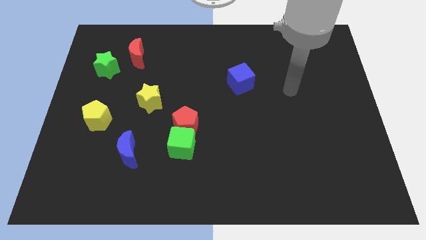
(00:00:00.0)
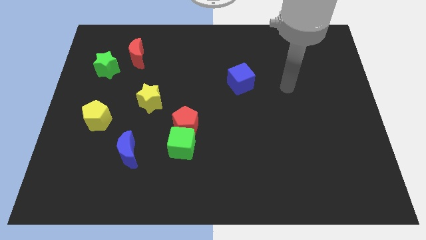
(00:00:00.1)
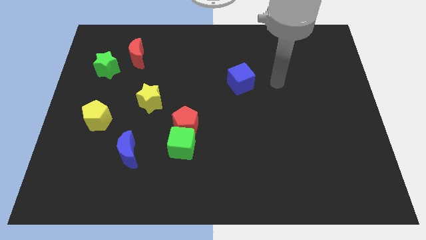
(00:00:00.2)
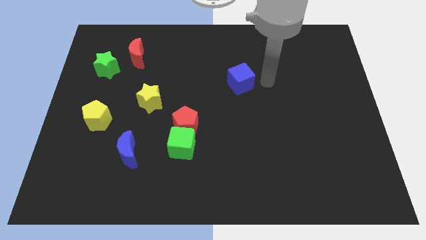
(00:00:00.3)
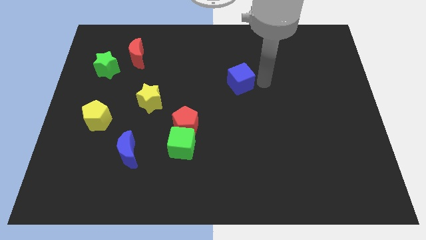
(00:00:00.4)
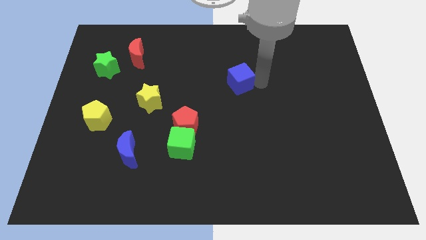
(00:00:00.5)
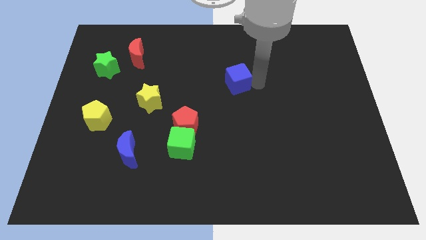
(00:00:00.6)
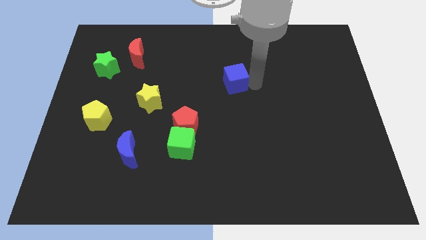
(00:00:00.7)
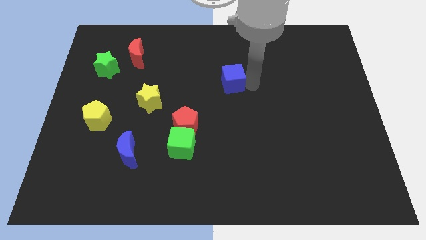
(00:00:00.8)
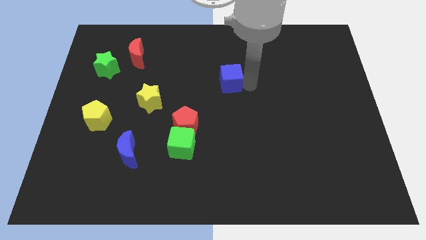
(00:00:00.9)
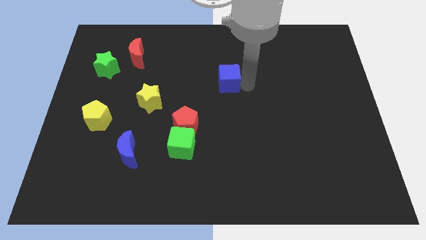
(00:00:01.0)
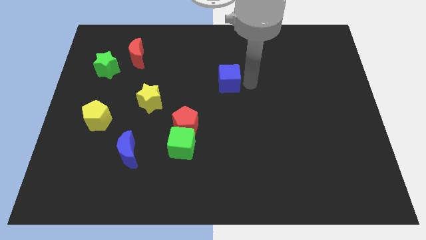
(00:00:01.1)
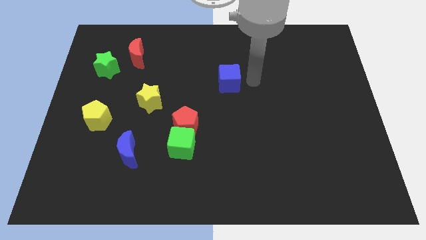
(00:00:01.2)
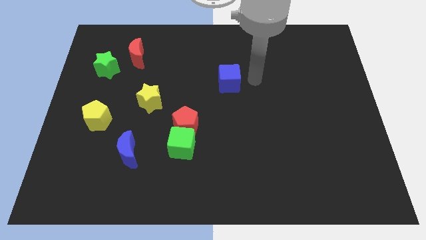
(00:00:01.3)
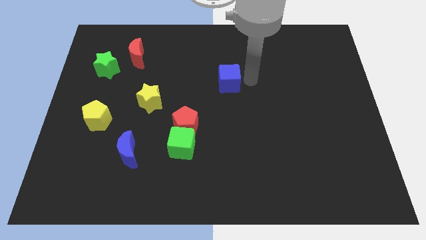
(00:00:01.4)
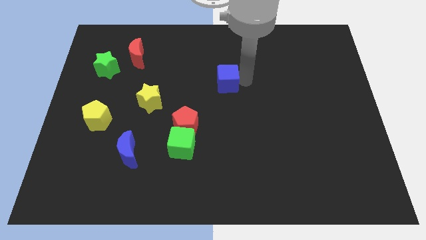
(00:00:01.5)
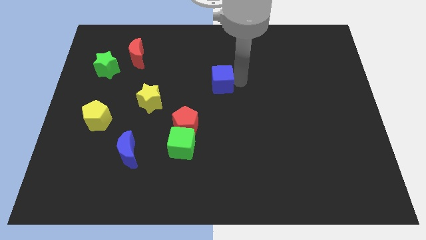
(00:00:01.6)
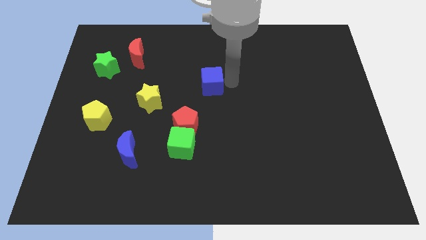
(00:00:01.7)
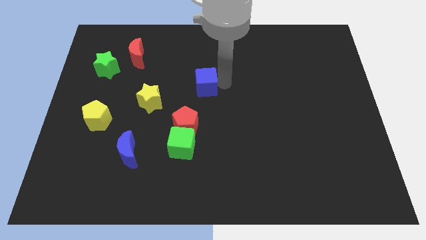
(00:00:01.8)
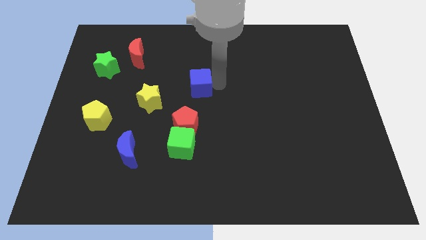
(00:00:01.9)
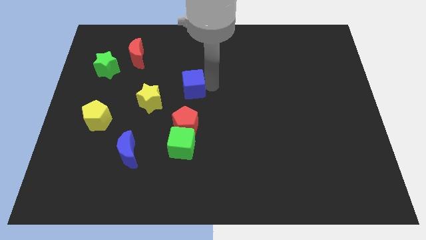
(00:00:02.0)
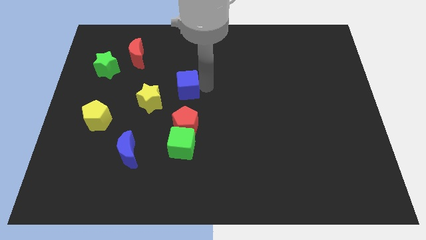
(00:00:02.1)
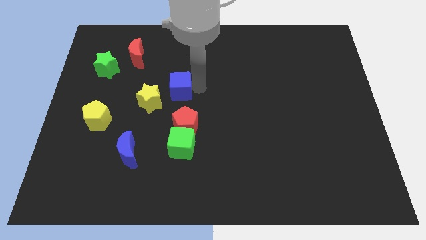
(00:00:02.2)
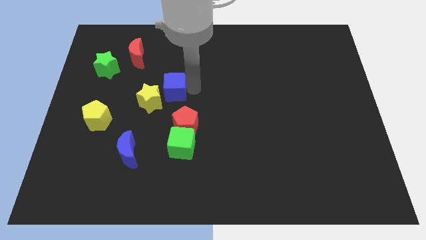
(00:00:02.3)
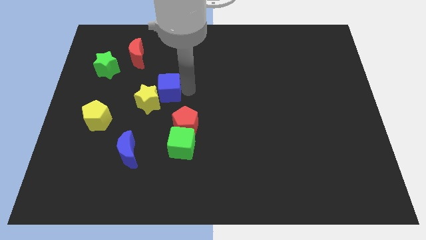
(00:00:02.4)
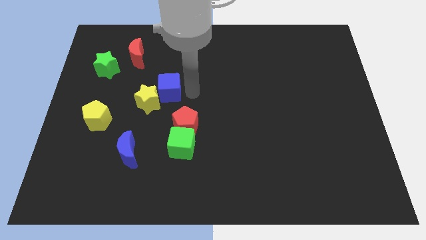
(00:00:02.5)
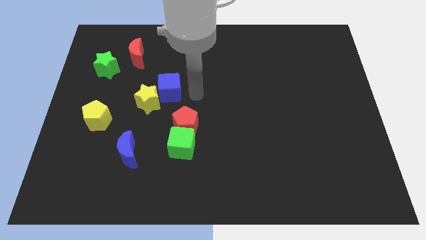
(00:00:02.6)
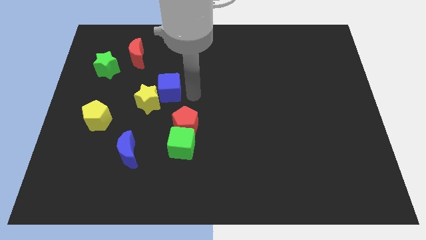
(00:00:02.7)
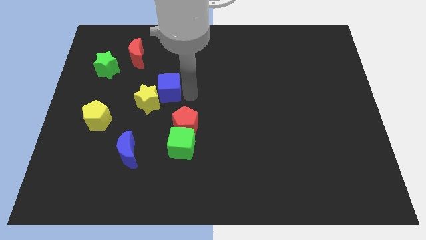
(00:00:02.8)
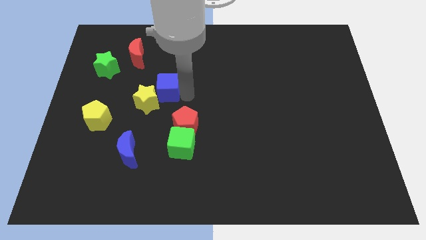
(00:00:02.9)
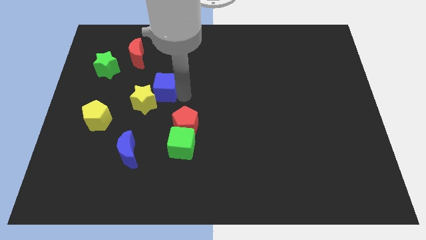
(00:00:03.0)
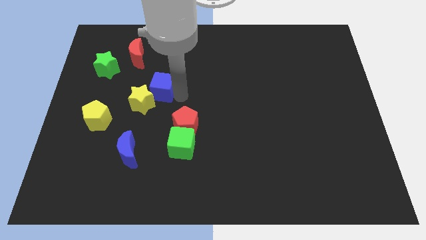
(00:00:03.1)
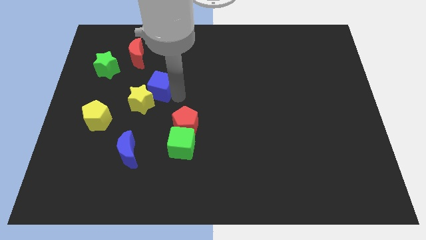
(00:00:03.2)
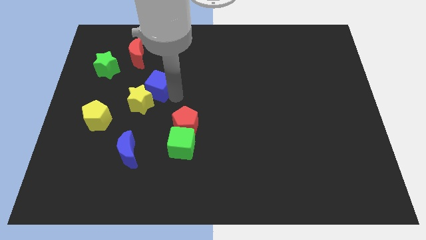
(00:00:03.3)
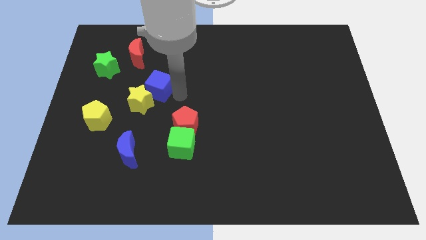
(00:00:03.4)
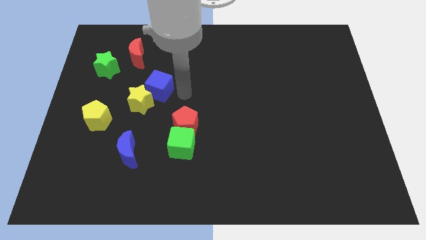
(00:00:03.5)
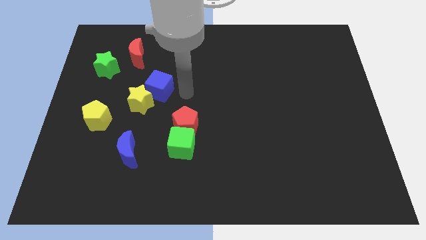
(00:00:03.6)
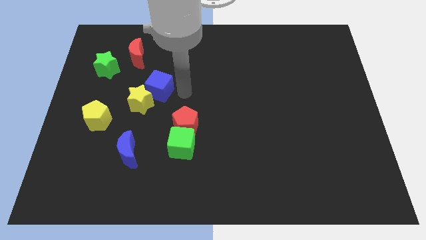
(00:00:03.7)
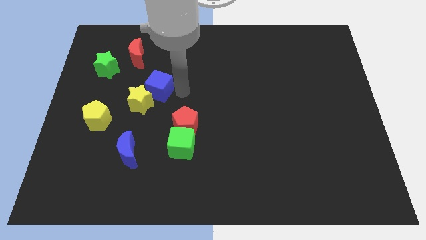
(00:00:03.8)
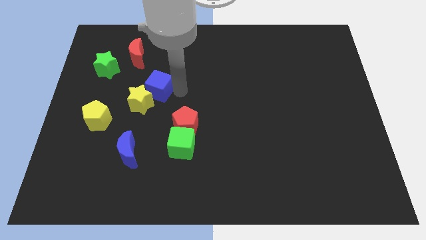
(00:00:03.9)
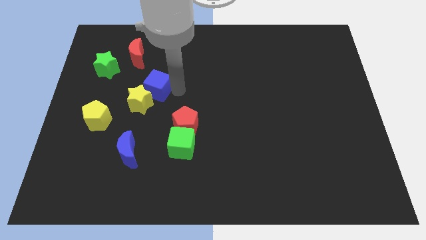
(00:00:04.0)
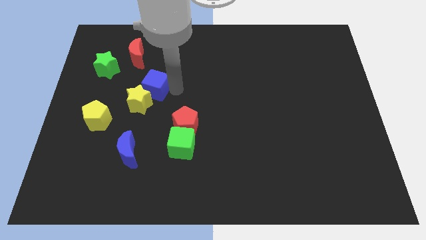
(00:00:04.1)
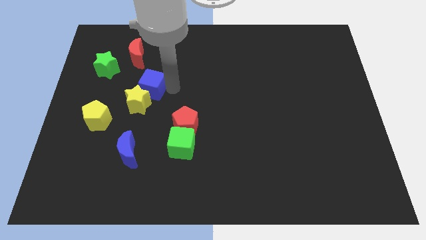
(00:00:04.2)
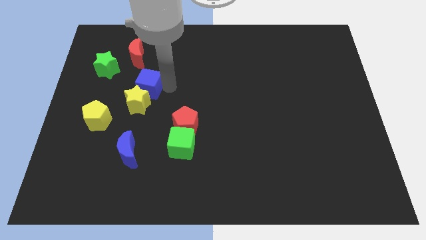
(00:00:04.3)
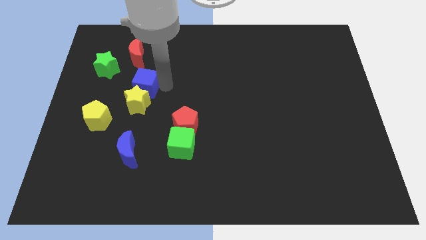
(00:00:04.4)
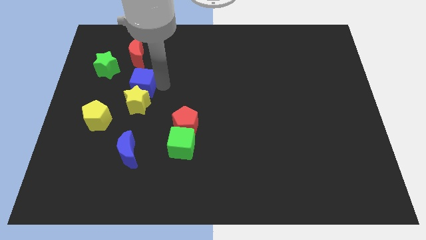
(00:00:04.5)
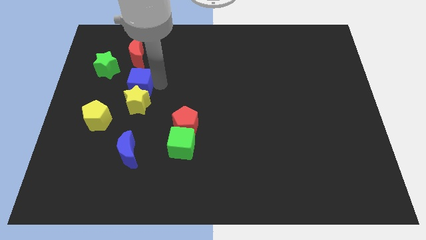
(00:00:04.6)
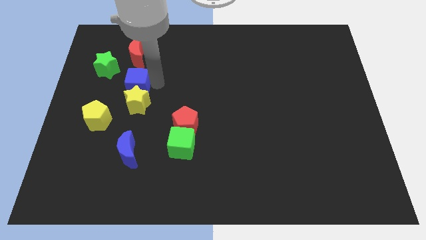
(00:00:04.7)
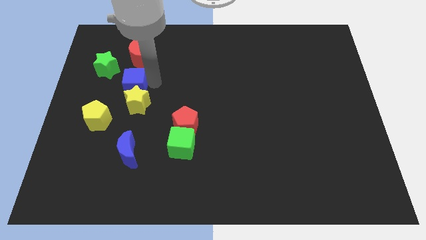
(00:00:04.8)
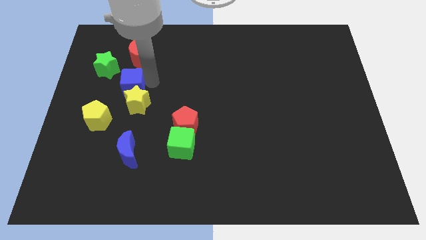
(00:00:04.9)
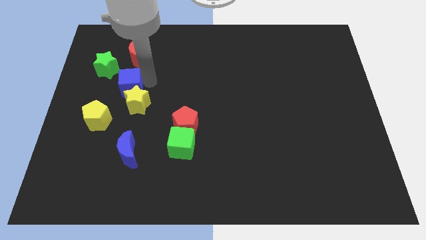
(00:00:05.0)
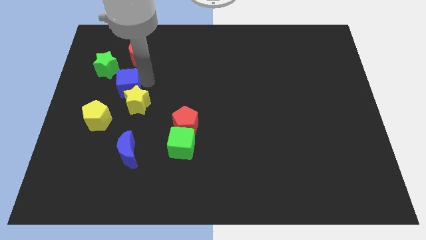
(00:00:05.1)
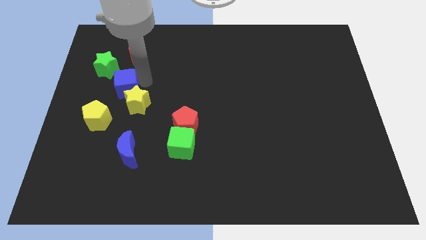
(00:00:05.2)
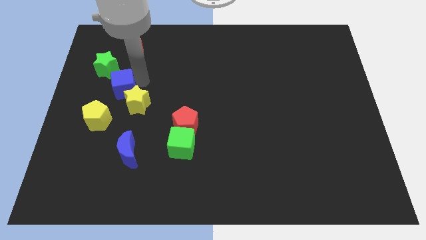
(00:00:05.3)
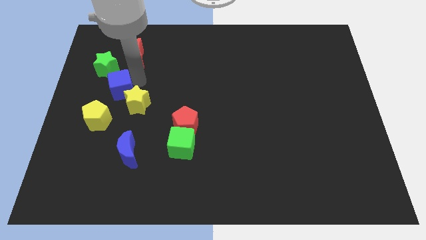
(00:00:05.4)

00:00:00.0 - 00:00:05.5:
push the blue cube to the bottom of the green star

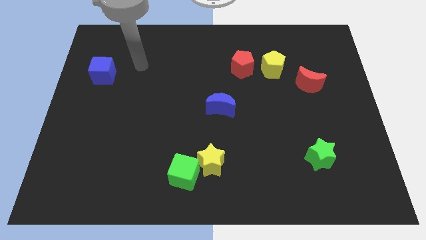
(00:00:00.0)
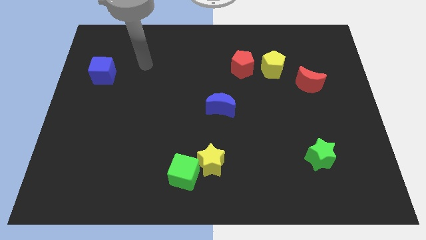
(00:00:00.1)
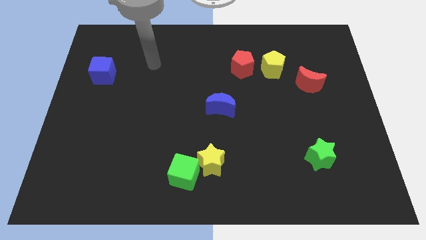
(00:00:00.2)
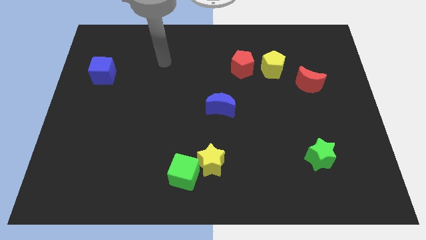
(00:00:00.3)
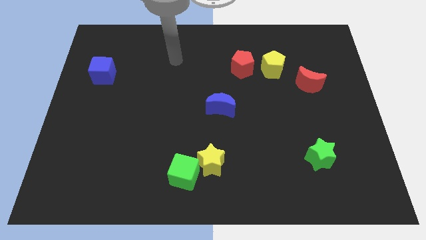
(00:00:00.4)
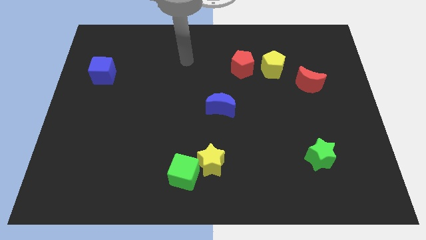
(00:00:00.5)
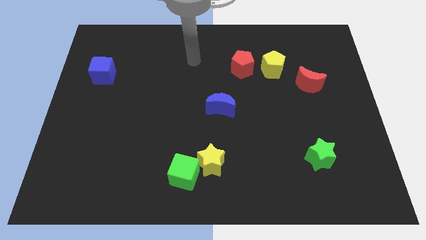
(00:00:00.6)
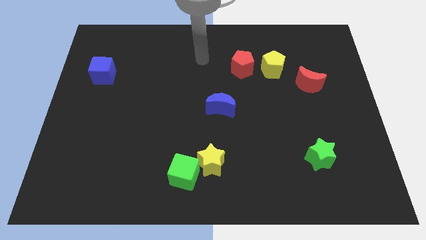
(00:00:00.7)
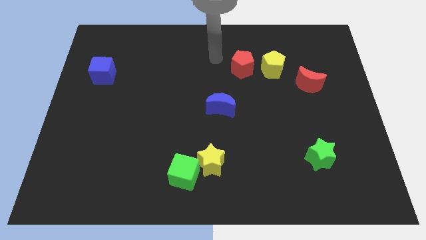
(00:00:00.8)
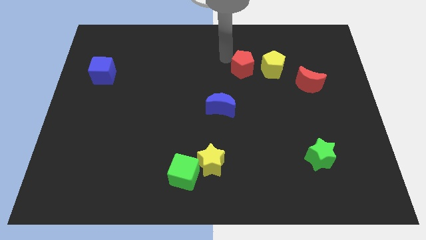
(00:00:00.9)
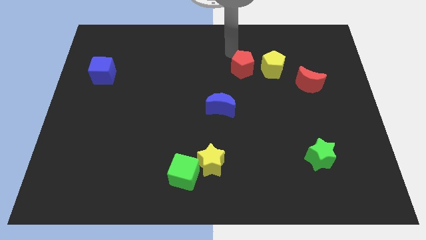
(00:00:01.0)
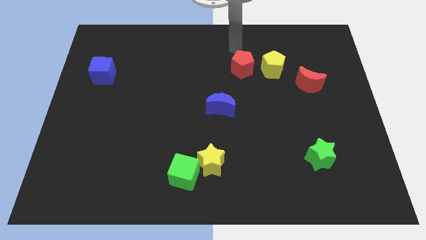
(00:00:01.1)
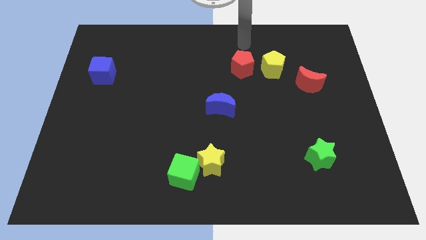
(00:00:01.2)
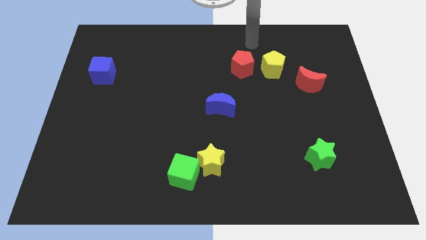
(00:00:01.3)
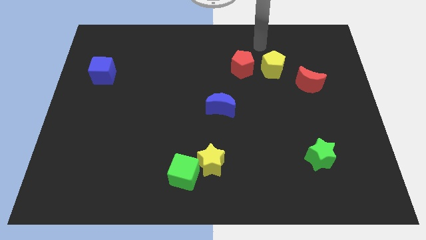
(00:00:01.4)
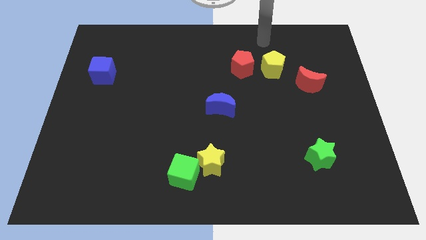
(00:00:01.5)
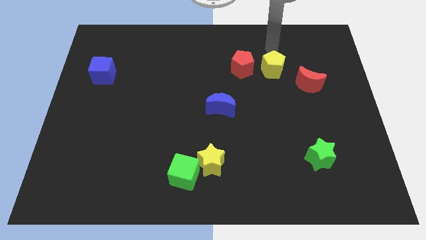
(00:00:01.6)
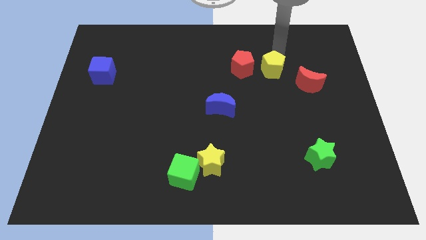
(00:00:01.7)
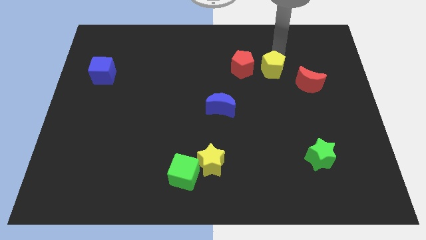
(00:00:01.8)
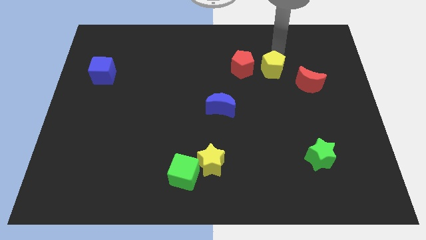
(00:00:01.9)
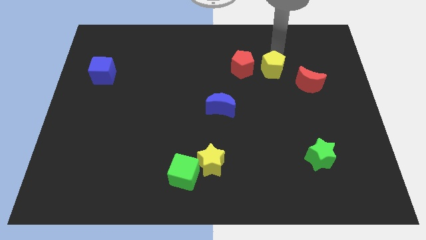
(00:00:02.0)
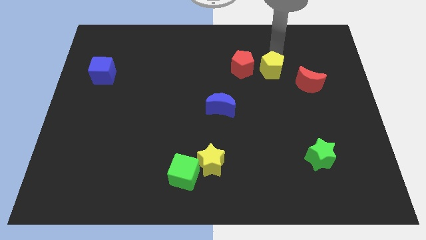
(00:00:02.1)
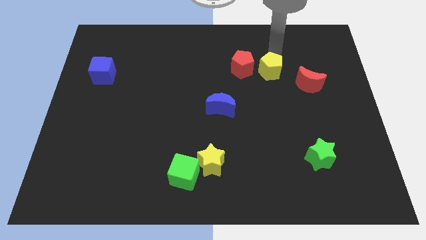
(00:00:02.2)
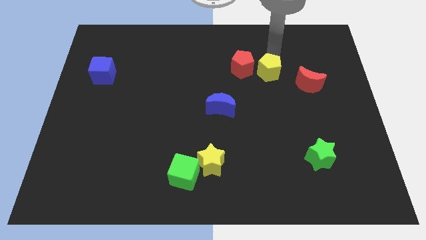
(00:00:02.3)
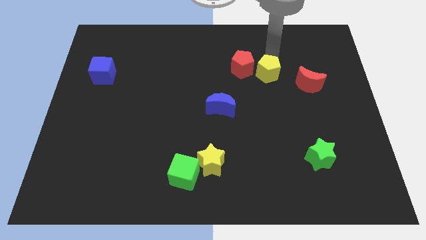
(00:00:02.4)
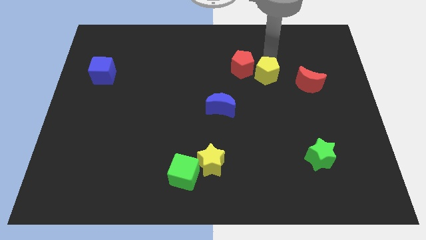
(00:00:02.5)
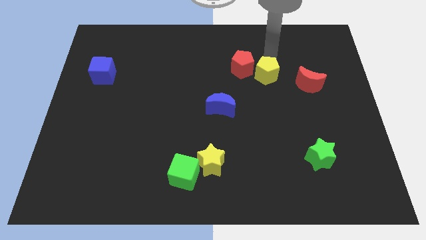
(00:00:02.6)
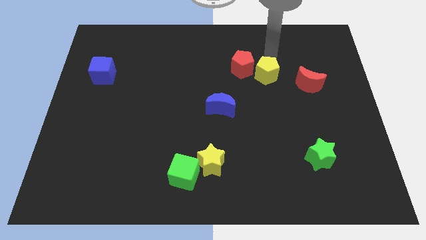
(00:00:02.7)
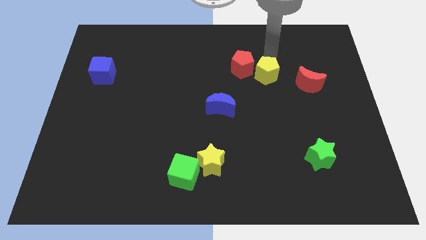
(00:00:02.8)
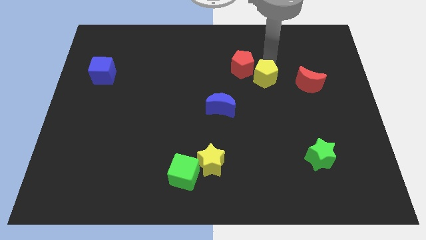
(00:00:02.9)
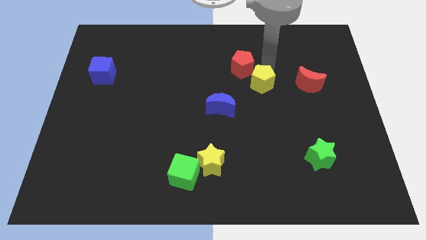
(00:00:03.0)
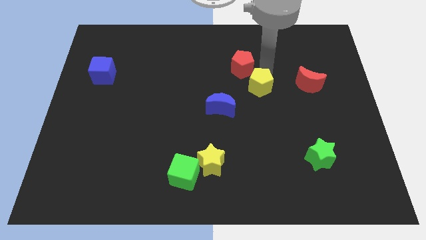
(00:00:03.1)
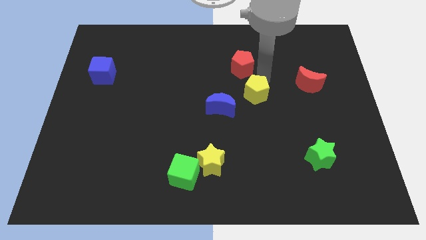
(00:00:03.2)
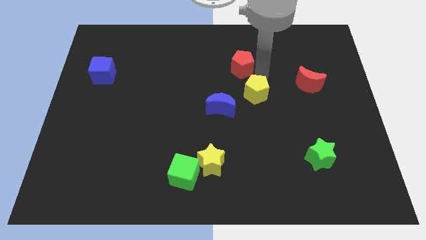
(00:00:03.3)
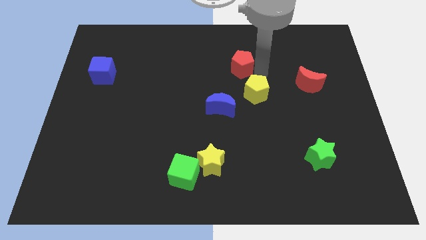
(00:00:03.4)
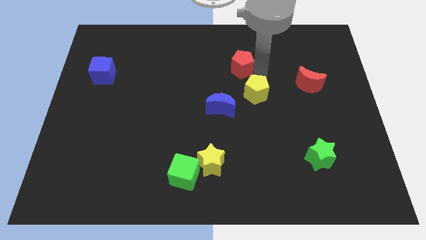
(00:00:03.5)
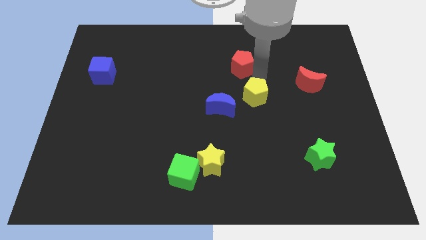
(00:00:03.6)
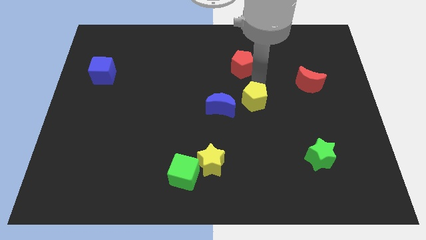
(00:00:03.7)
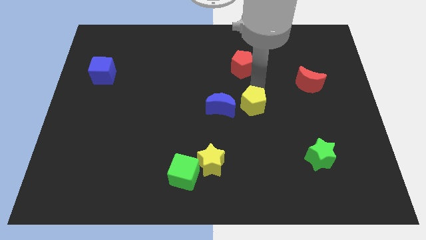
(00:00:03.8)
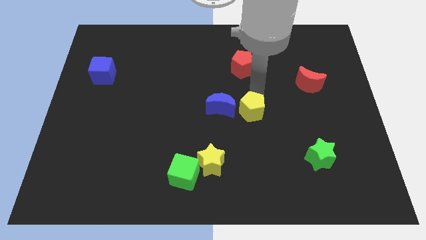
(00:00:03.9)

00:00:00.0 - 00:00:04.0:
put the yellow pentagon to the bottom right of the blue moon
